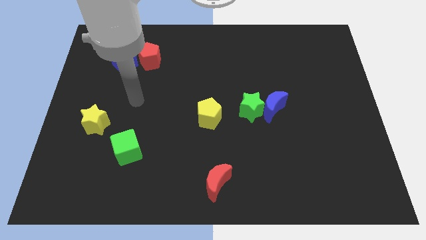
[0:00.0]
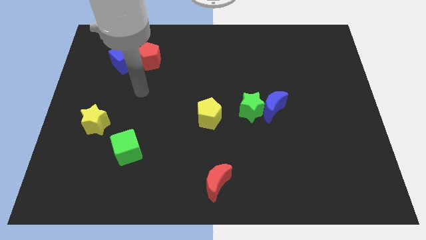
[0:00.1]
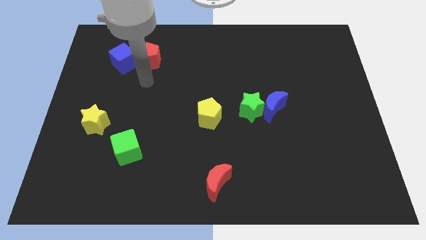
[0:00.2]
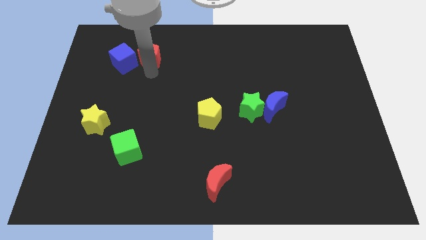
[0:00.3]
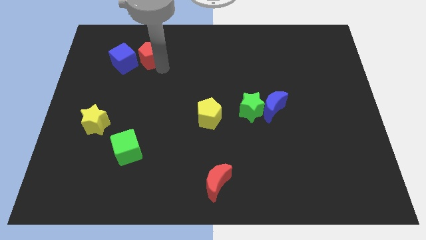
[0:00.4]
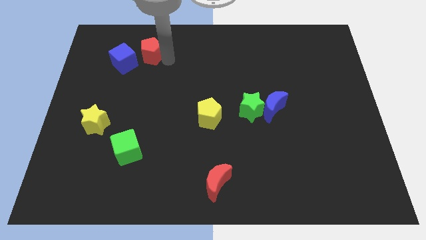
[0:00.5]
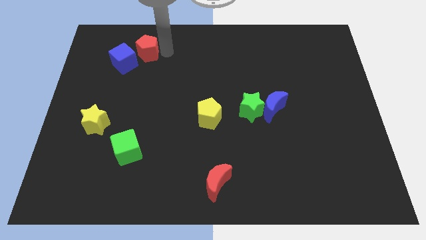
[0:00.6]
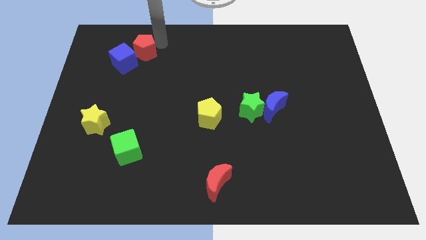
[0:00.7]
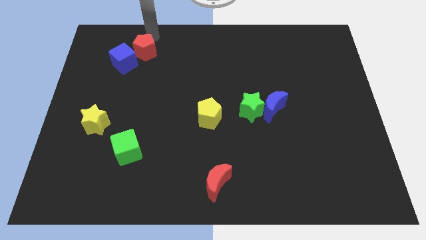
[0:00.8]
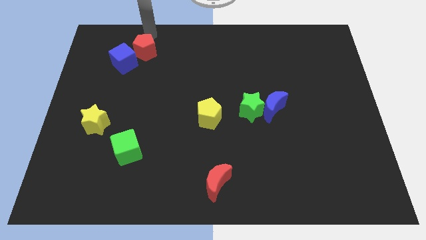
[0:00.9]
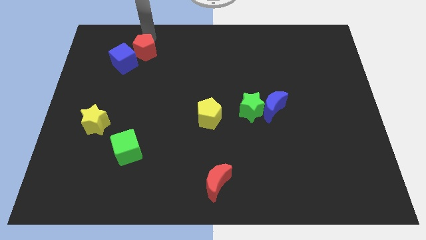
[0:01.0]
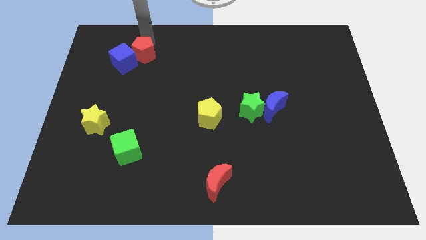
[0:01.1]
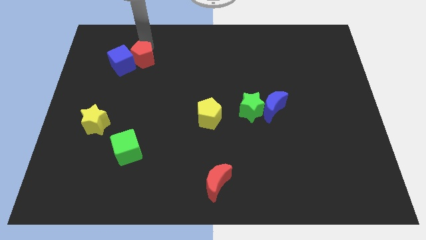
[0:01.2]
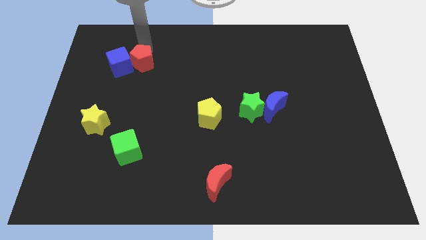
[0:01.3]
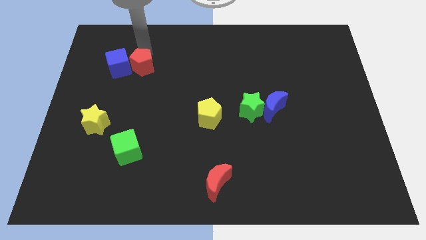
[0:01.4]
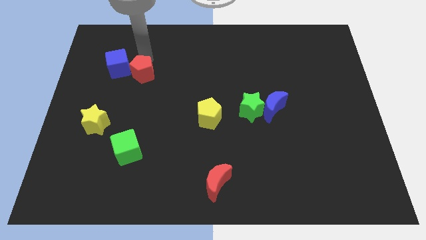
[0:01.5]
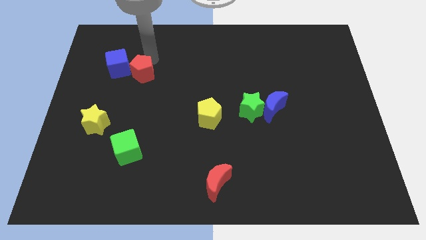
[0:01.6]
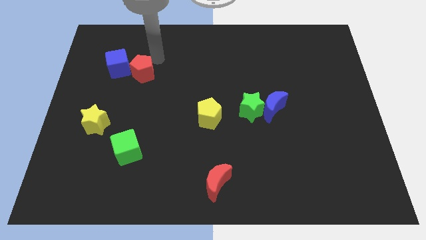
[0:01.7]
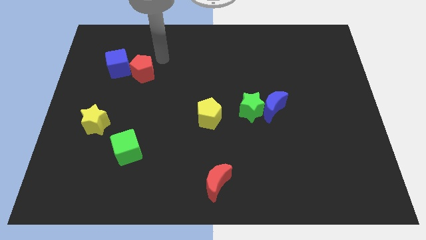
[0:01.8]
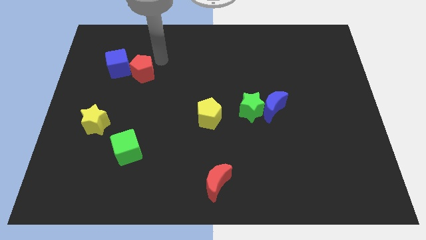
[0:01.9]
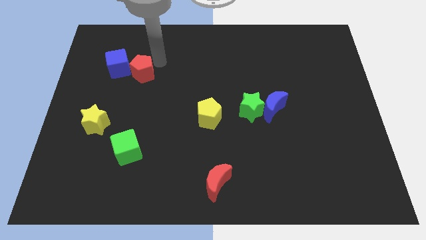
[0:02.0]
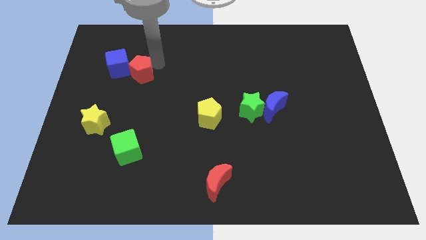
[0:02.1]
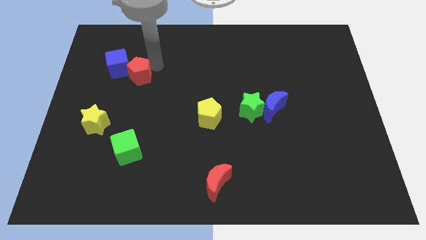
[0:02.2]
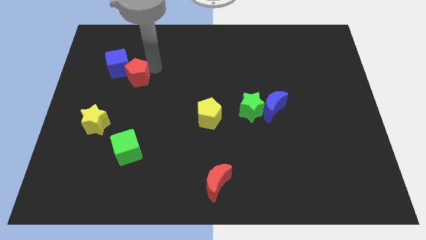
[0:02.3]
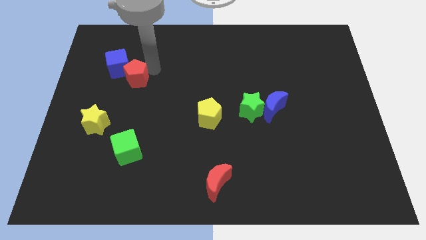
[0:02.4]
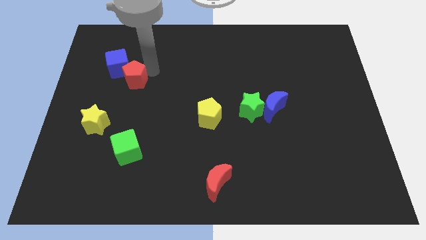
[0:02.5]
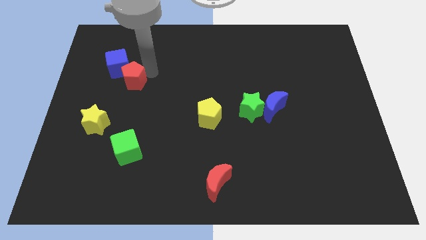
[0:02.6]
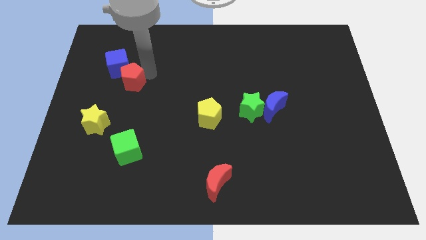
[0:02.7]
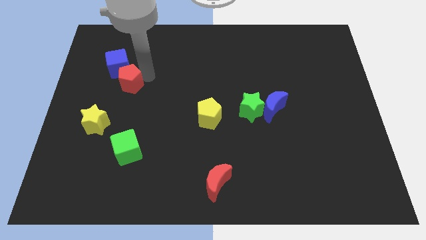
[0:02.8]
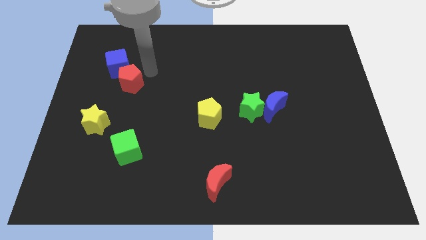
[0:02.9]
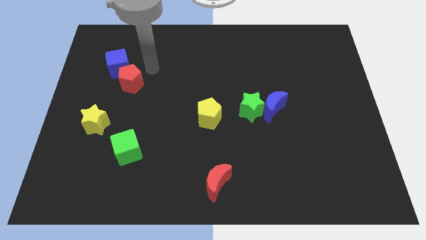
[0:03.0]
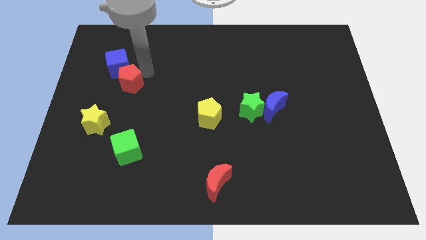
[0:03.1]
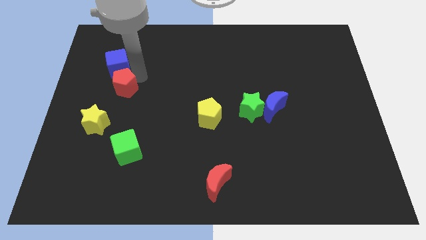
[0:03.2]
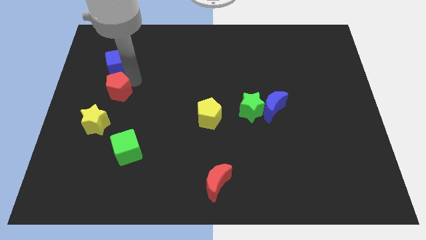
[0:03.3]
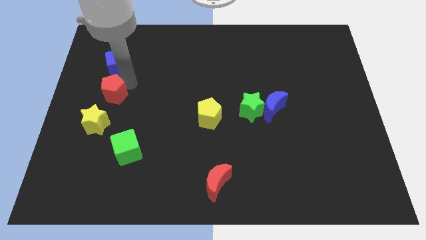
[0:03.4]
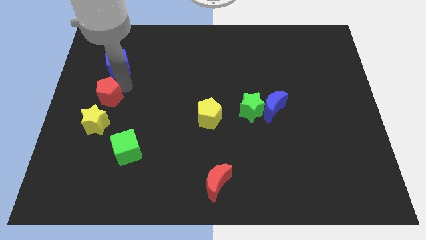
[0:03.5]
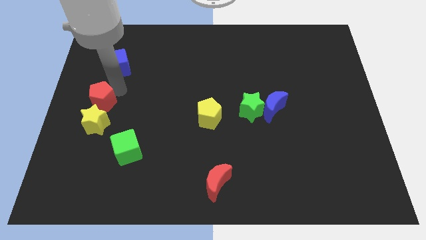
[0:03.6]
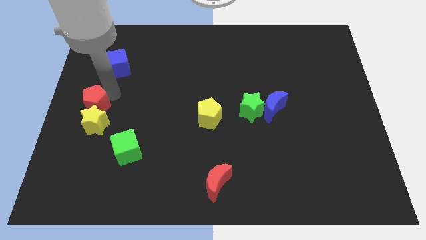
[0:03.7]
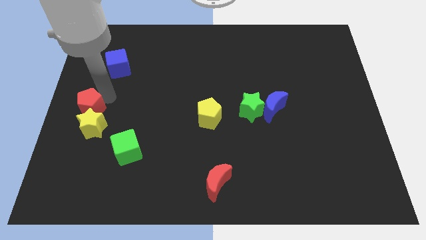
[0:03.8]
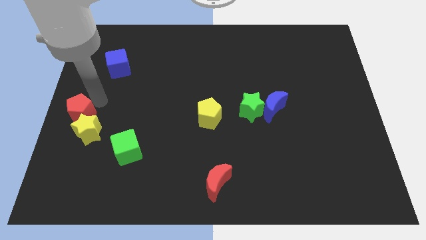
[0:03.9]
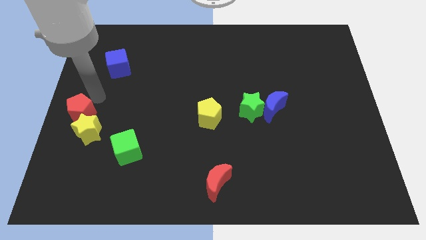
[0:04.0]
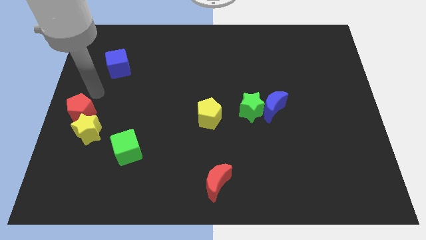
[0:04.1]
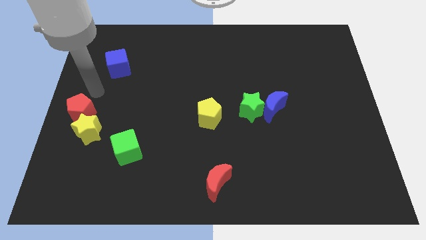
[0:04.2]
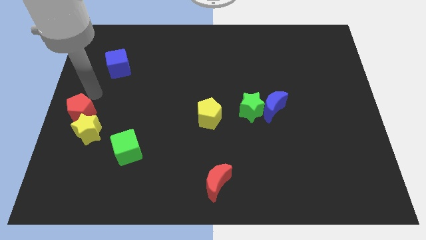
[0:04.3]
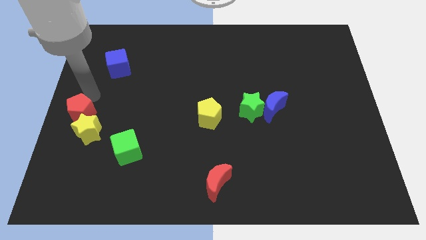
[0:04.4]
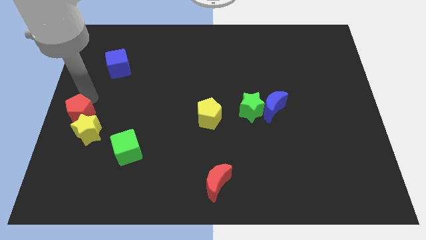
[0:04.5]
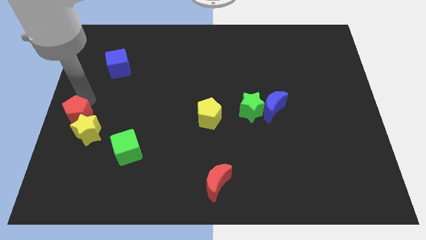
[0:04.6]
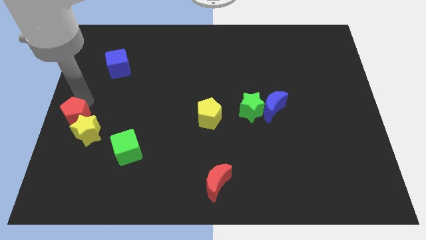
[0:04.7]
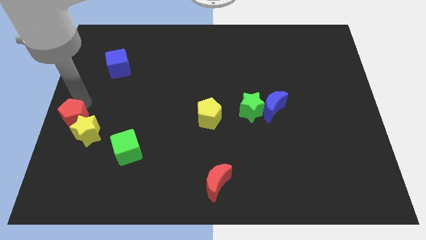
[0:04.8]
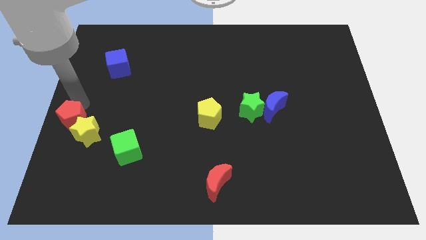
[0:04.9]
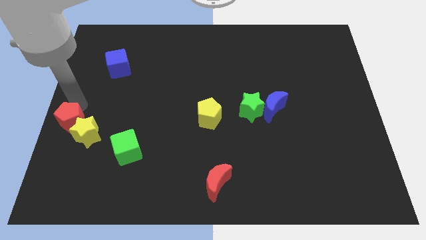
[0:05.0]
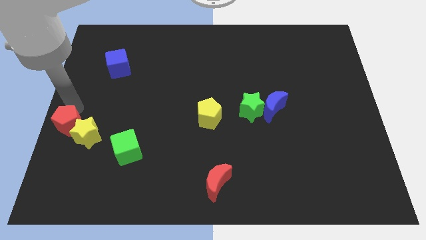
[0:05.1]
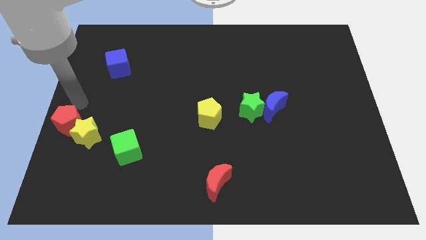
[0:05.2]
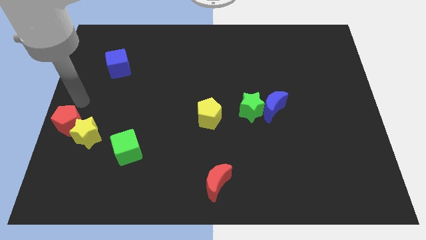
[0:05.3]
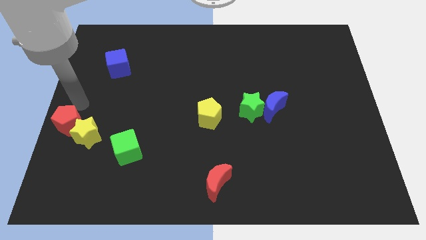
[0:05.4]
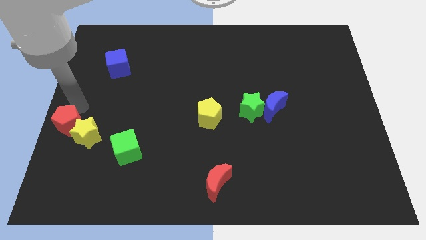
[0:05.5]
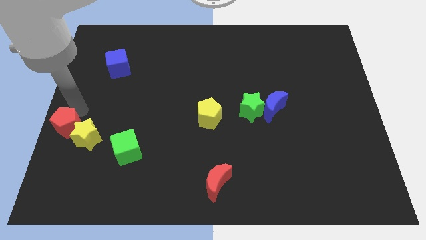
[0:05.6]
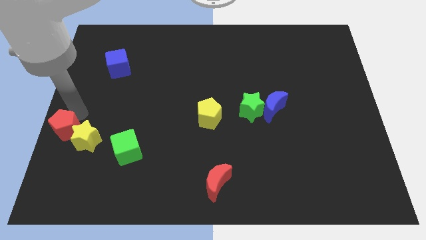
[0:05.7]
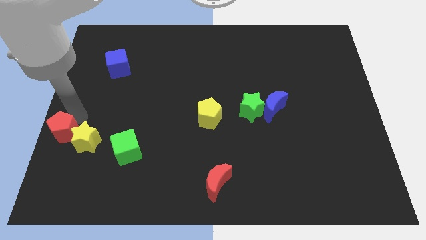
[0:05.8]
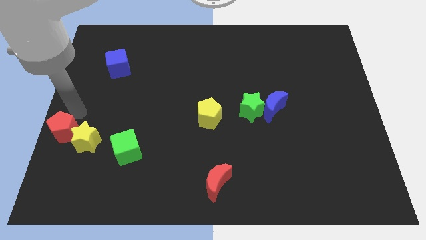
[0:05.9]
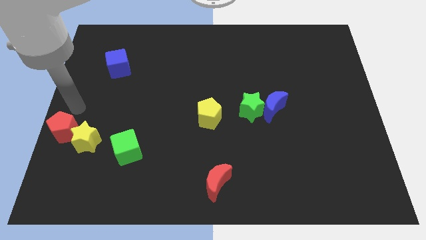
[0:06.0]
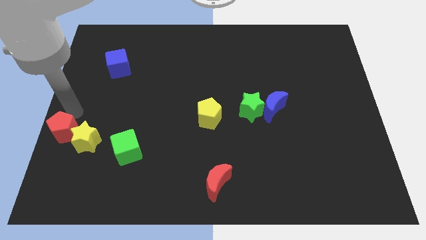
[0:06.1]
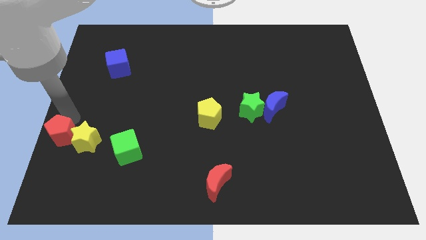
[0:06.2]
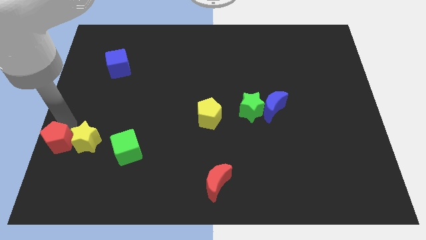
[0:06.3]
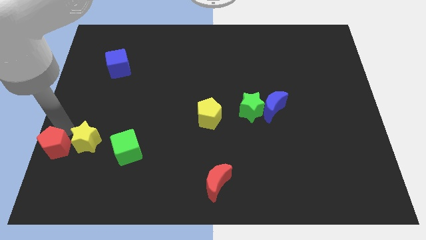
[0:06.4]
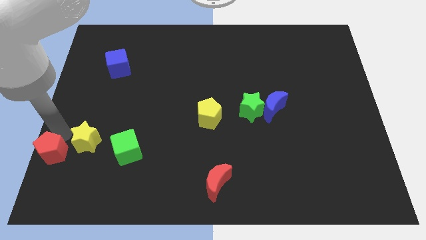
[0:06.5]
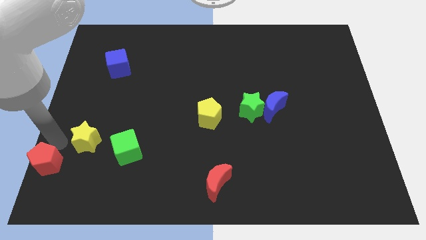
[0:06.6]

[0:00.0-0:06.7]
move the red pentagon to the bottom left of the board

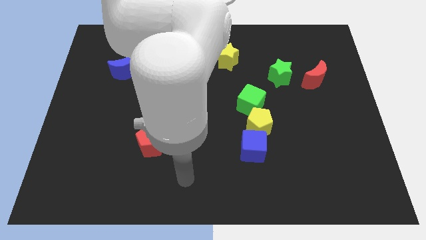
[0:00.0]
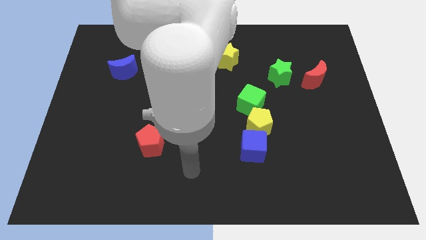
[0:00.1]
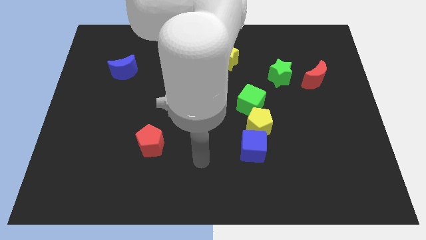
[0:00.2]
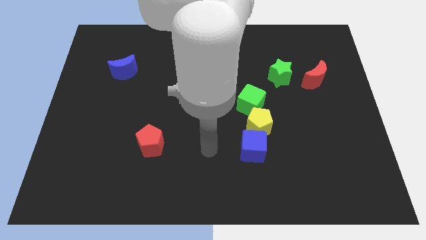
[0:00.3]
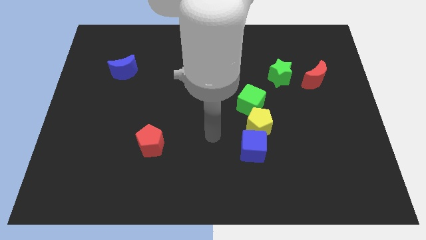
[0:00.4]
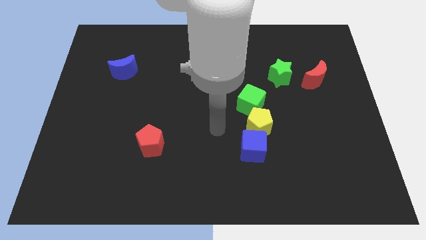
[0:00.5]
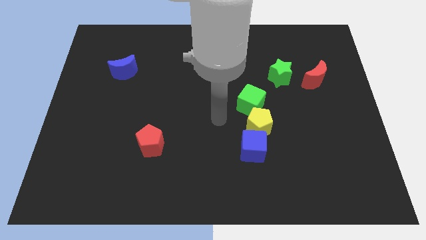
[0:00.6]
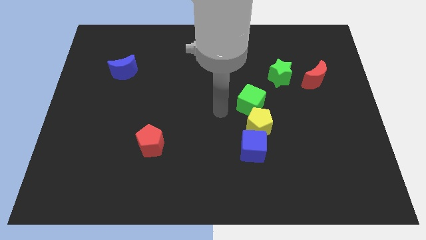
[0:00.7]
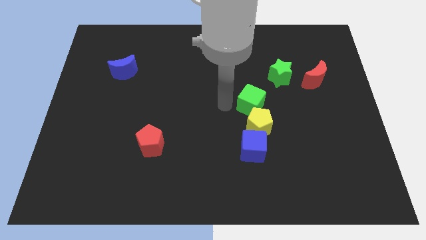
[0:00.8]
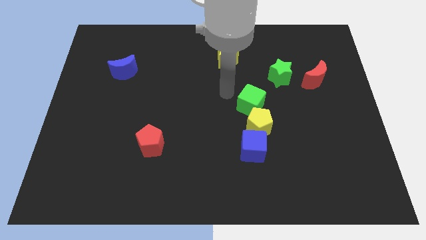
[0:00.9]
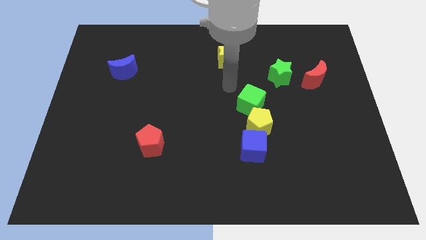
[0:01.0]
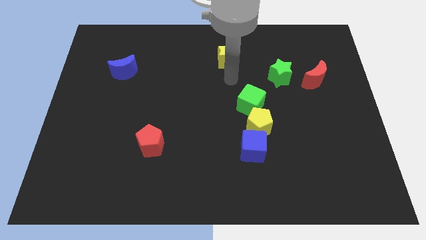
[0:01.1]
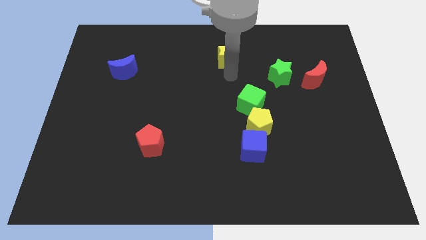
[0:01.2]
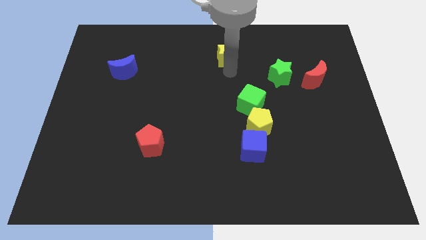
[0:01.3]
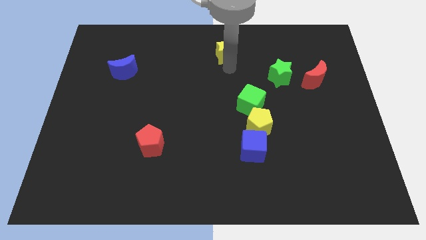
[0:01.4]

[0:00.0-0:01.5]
put the yellow star to the towards your base
